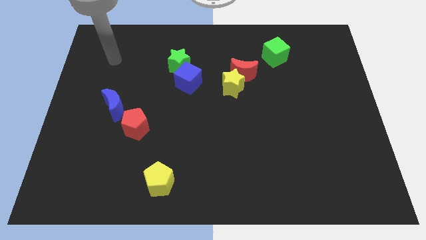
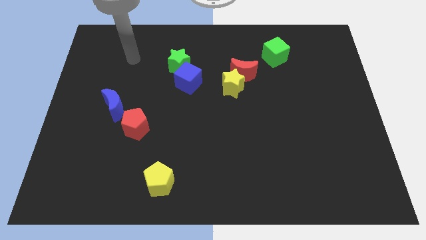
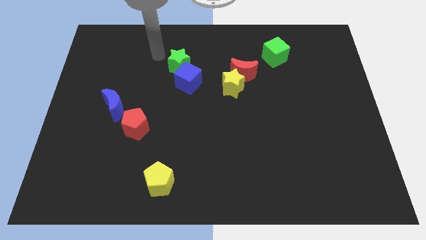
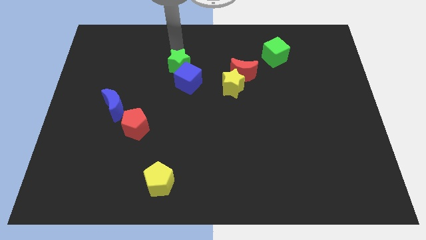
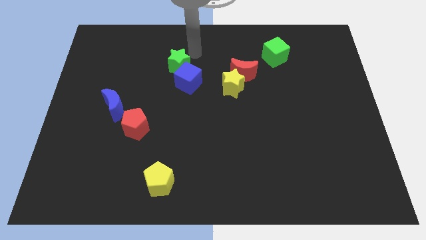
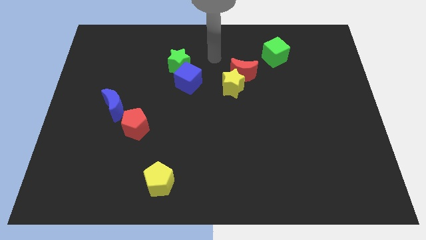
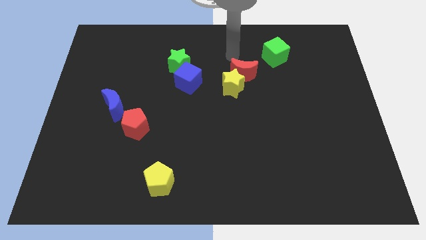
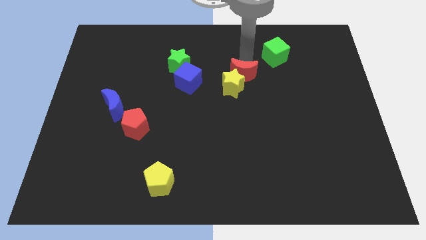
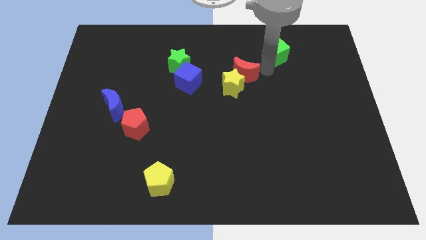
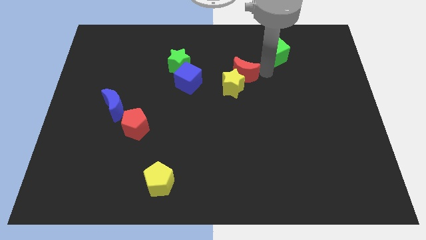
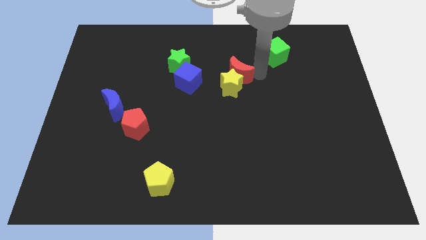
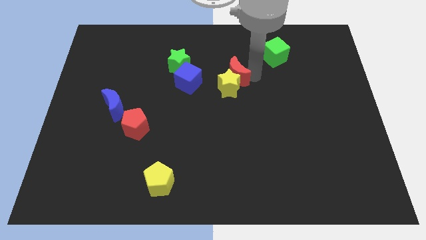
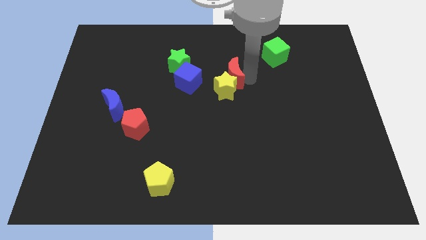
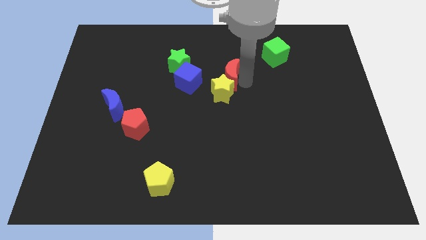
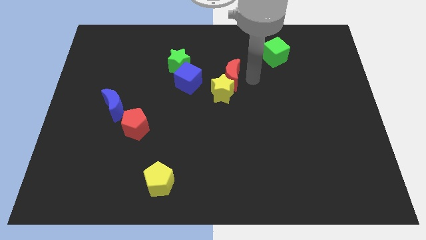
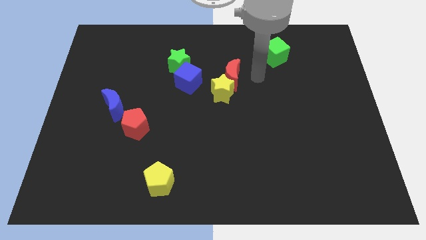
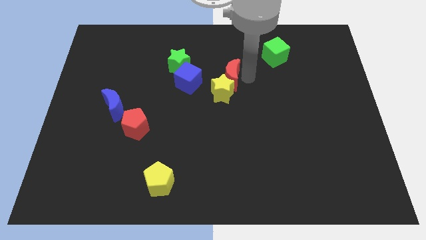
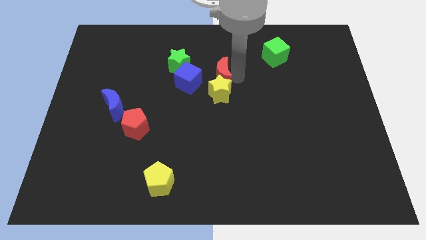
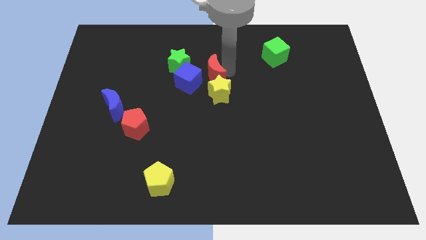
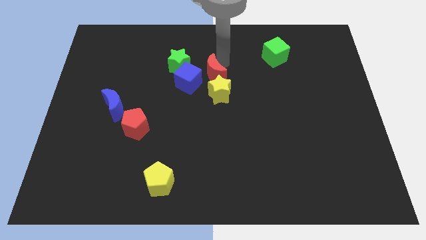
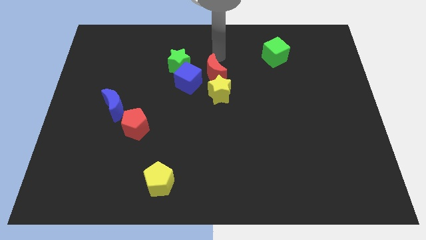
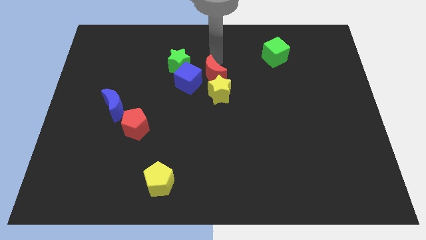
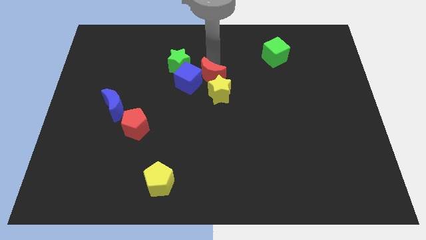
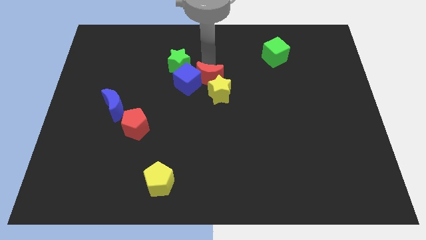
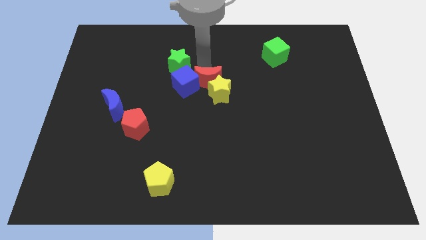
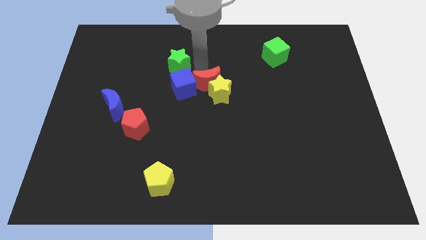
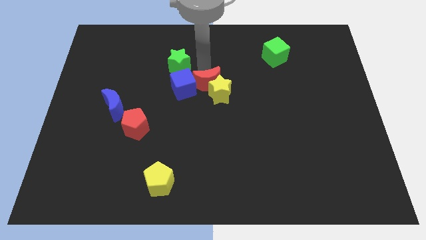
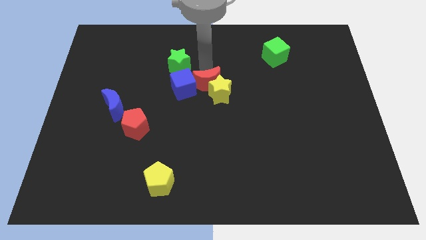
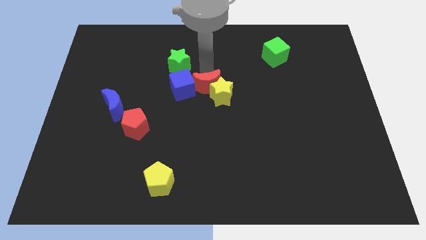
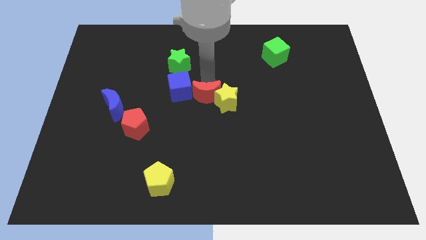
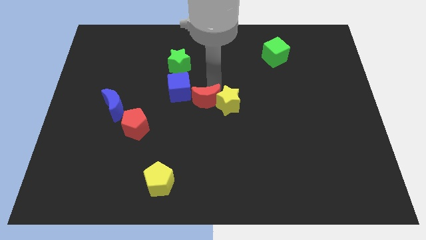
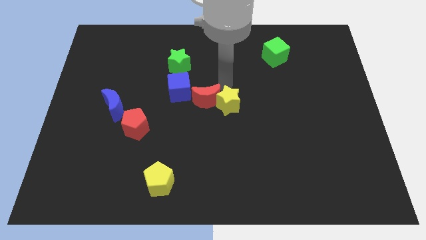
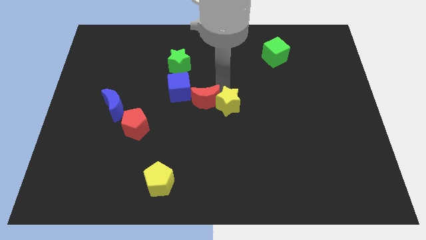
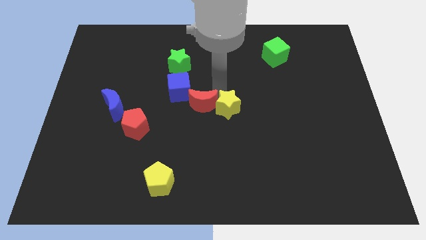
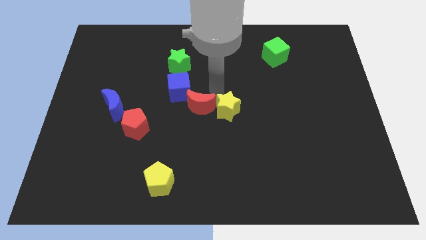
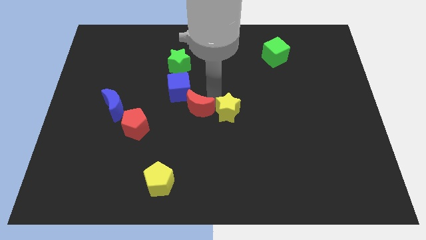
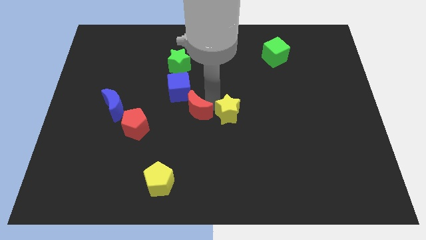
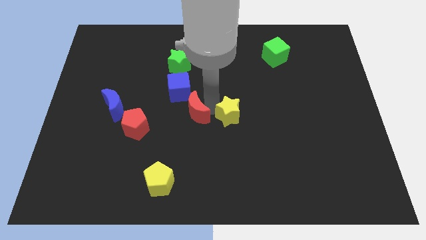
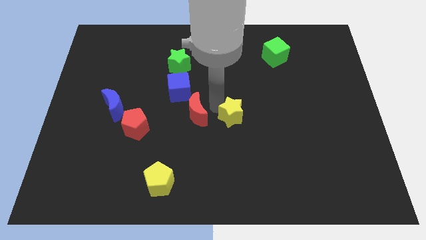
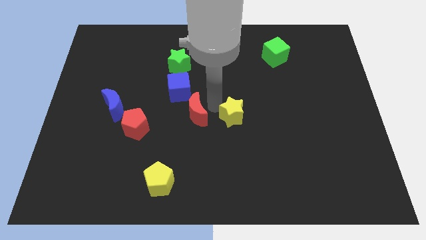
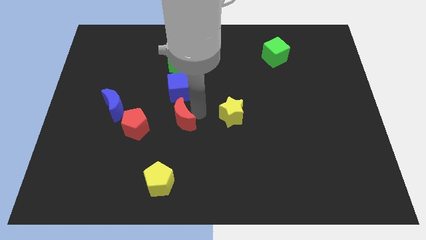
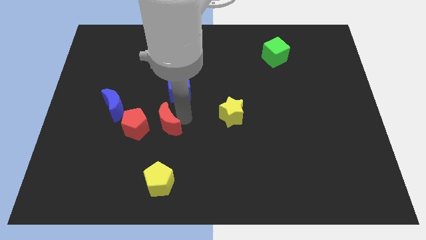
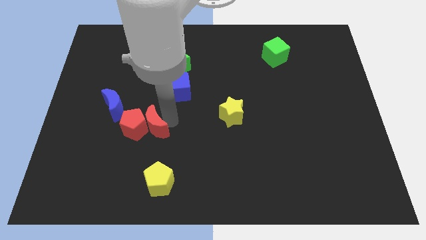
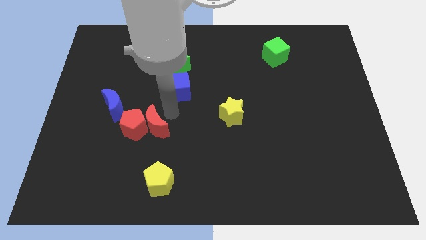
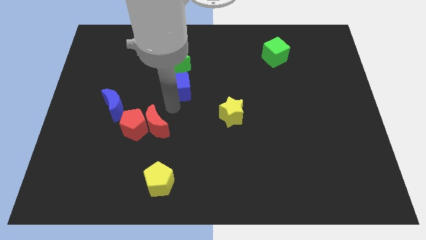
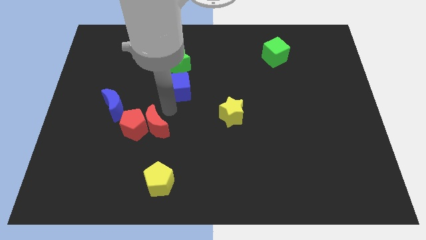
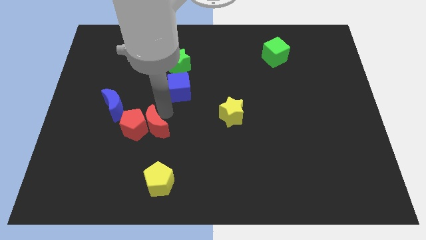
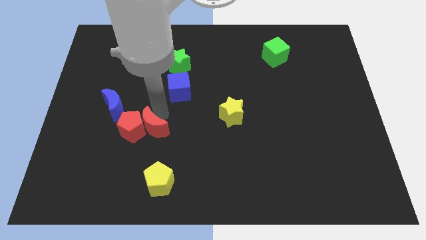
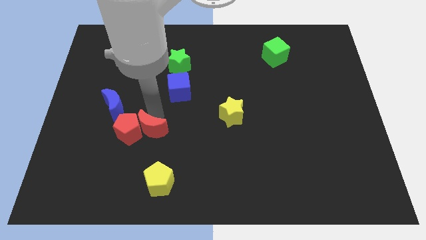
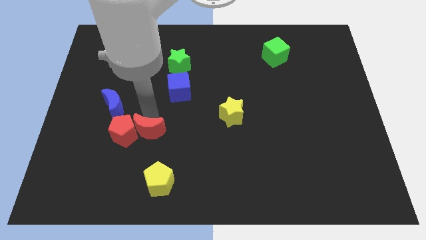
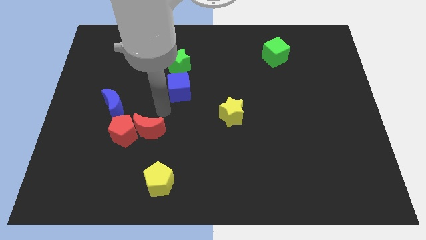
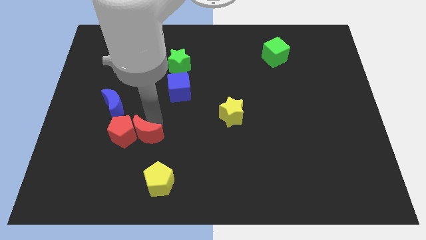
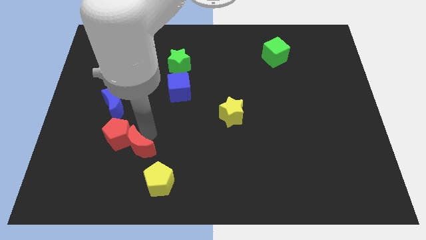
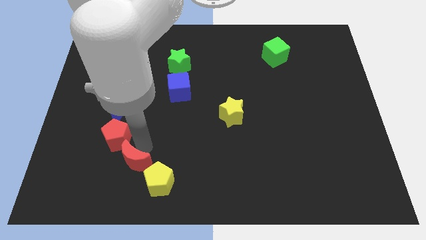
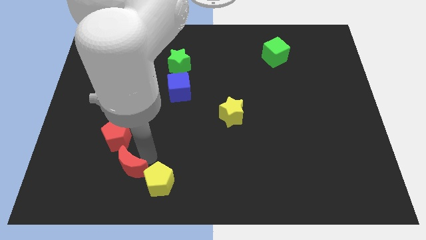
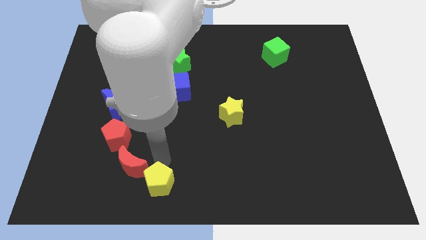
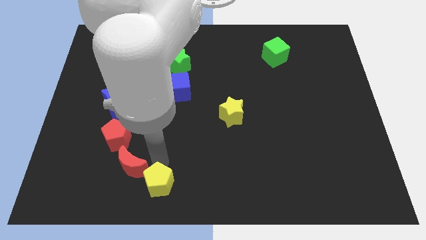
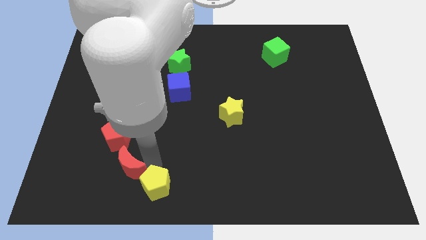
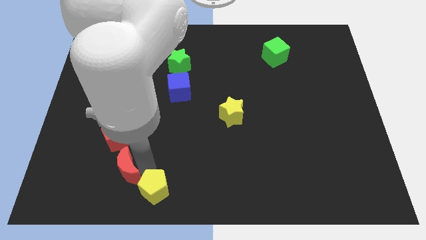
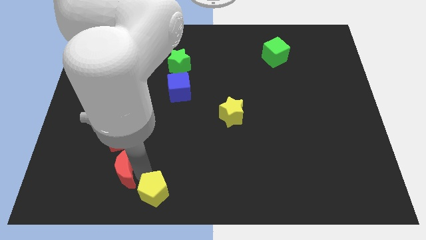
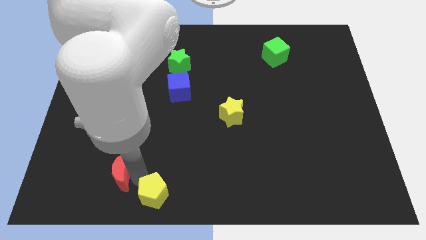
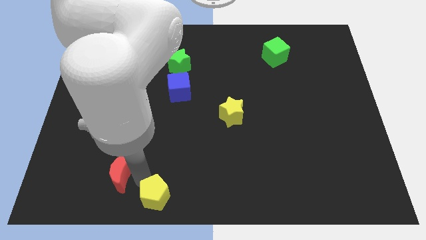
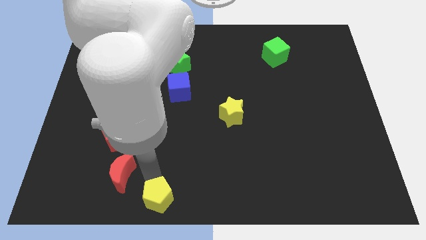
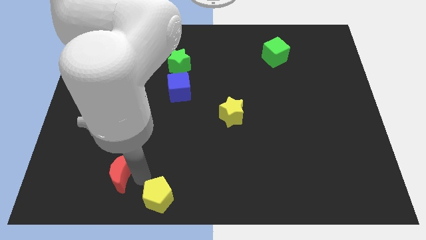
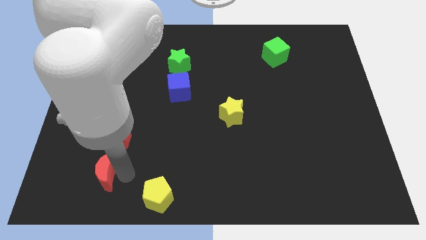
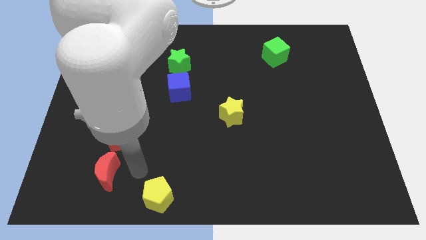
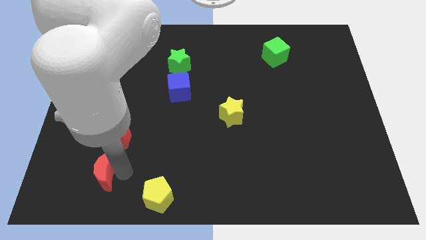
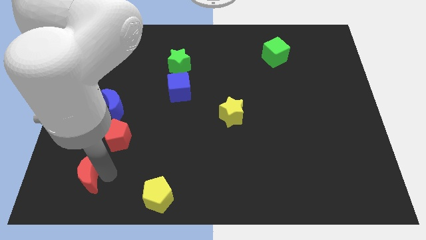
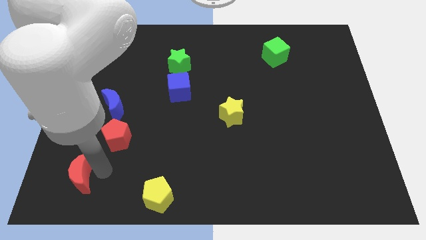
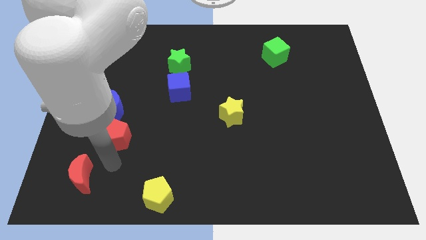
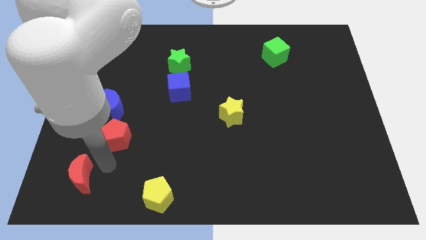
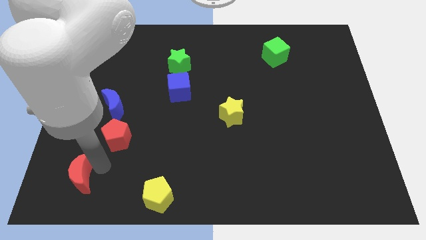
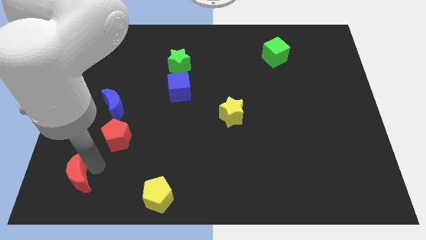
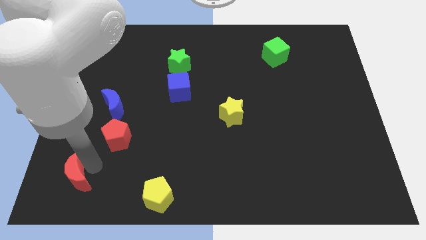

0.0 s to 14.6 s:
move the red moon to the bottom left corner

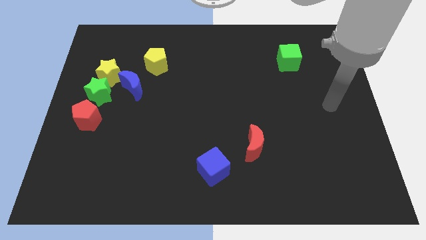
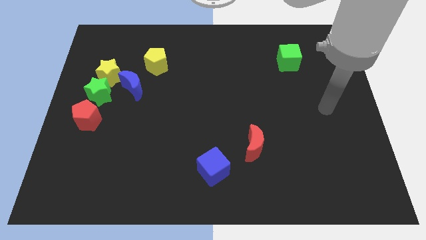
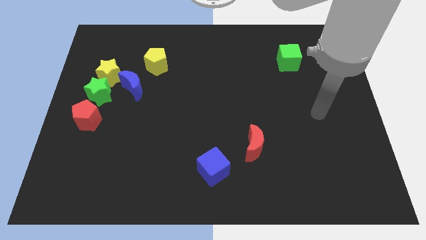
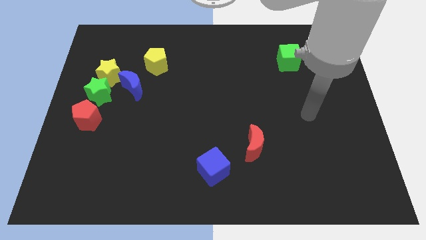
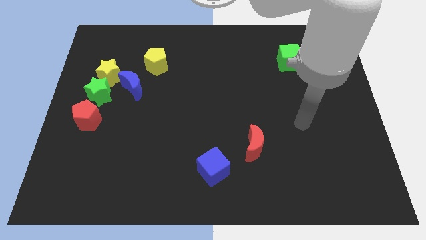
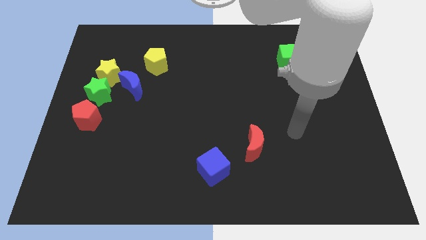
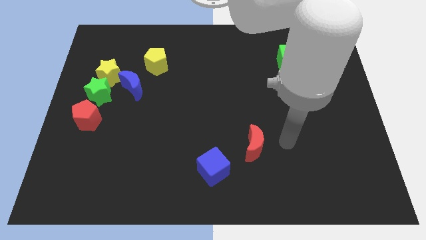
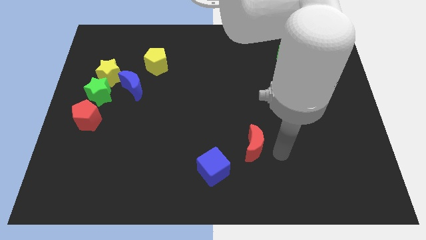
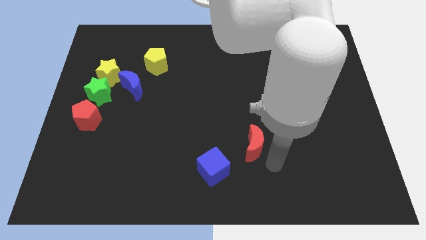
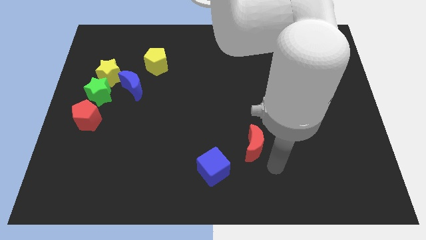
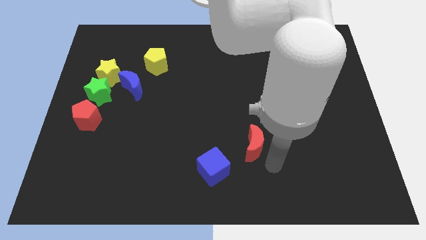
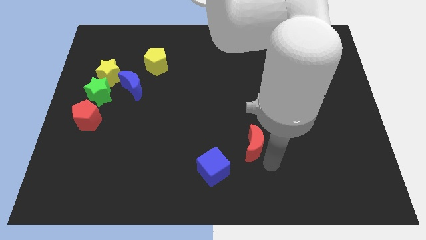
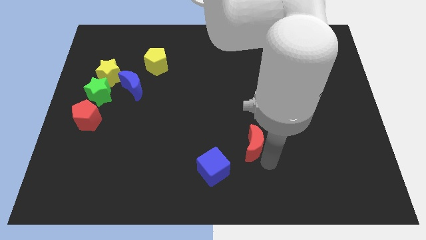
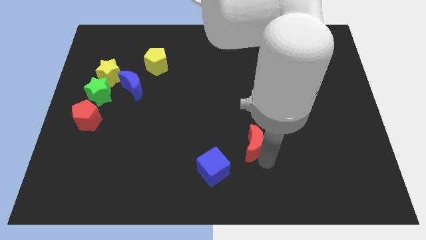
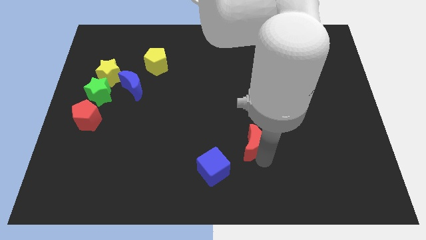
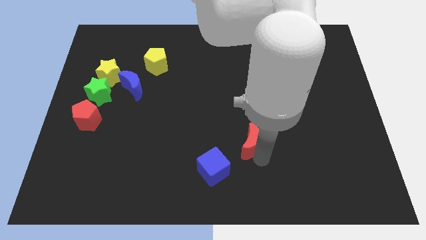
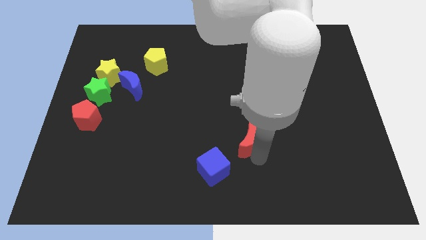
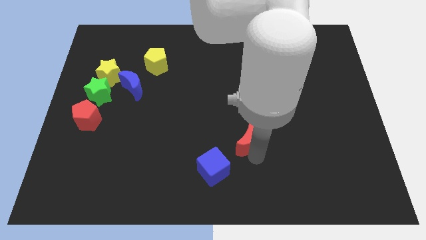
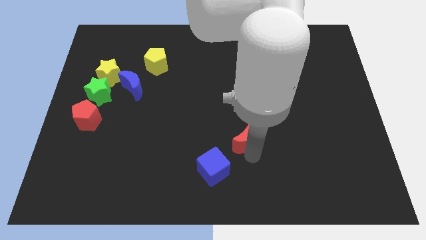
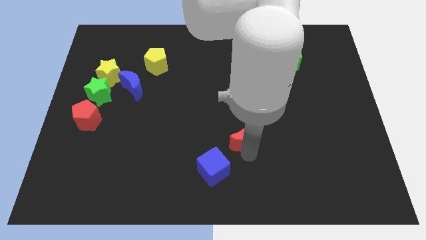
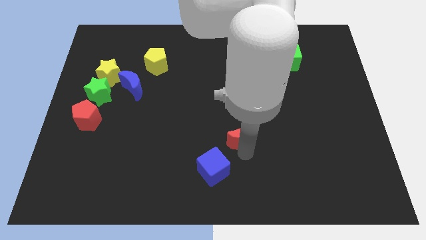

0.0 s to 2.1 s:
move the red moon to the middle of the board
